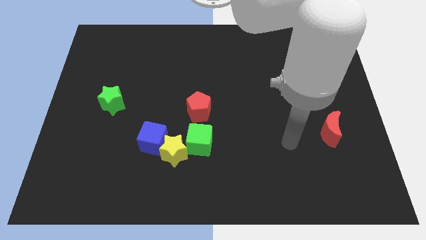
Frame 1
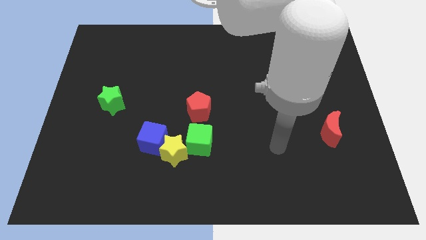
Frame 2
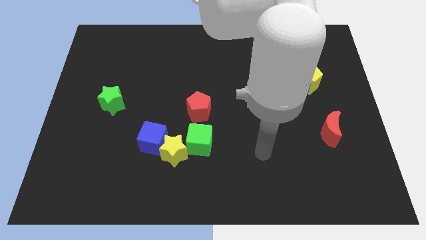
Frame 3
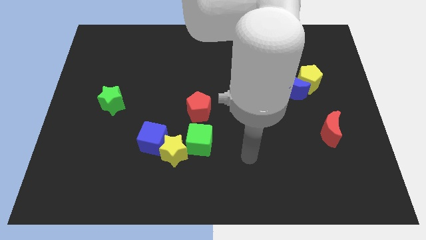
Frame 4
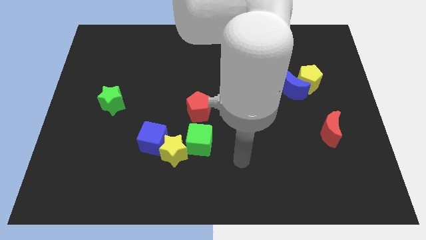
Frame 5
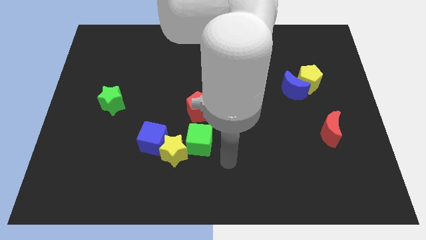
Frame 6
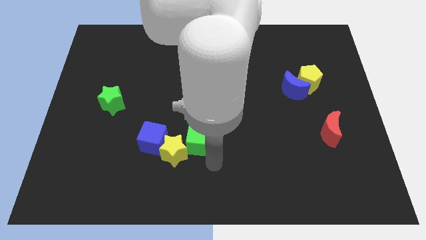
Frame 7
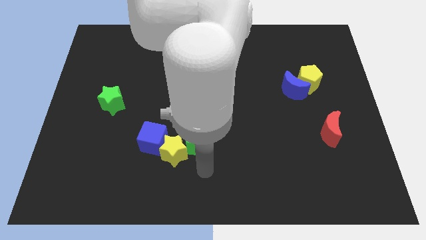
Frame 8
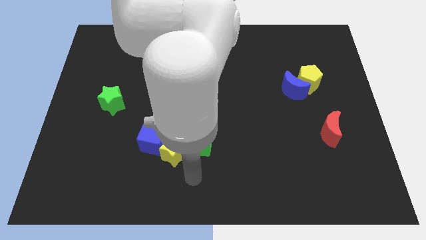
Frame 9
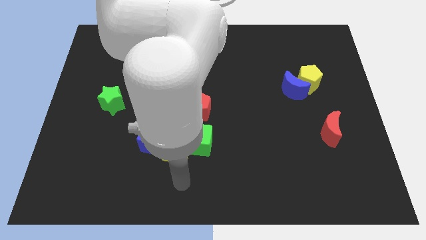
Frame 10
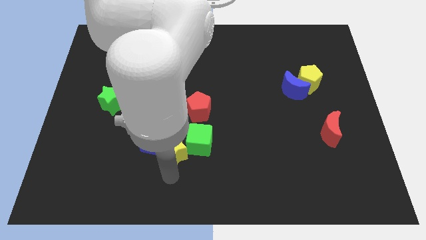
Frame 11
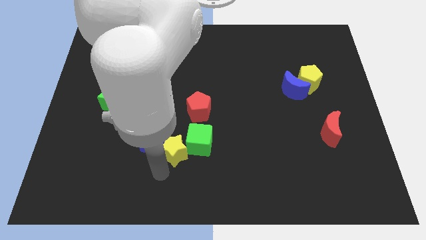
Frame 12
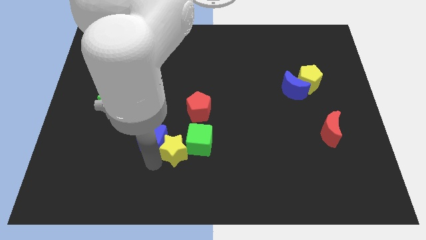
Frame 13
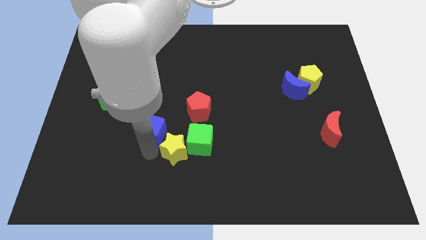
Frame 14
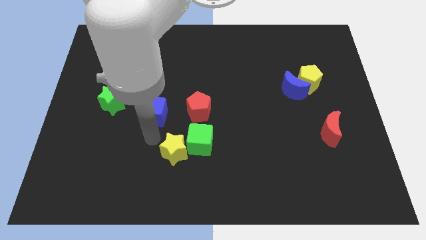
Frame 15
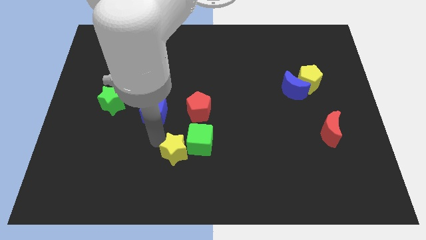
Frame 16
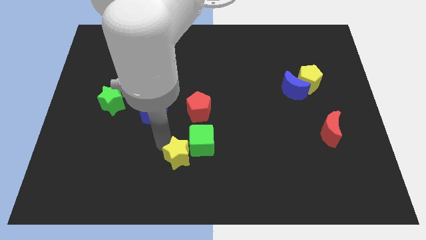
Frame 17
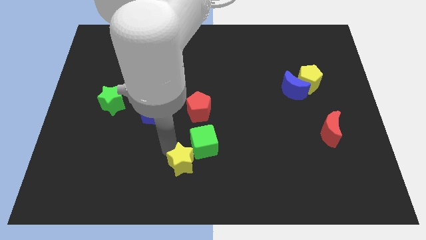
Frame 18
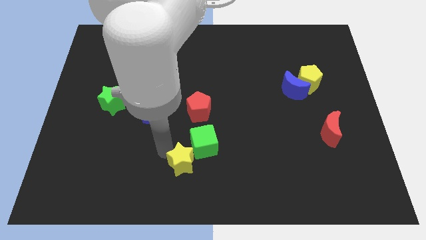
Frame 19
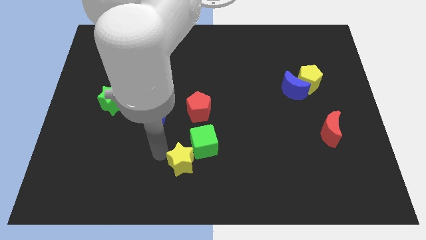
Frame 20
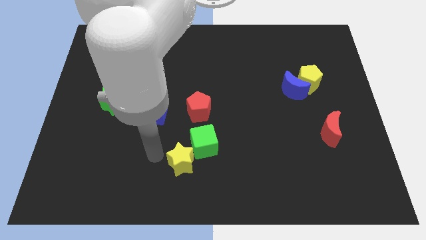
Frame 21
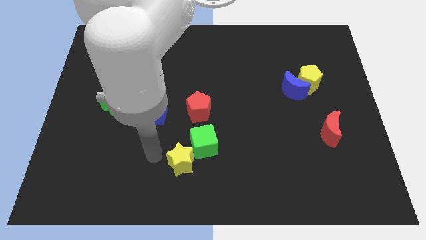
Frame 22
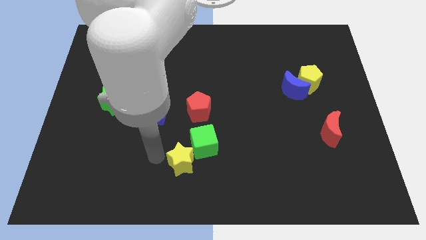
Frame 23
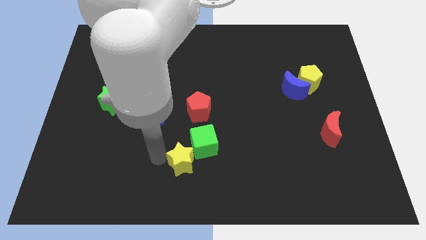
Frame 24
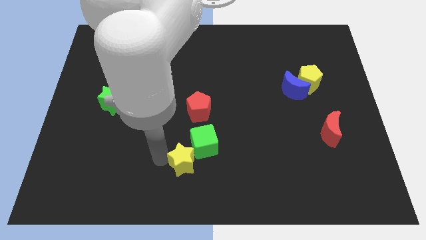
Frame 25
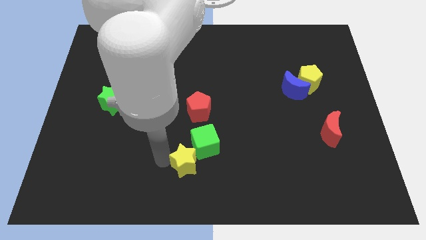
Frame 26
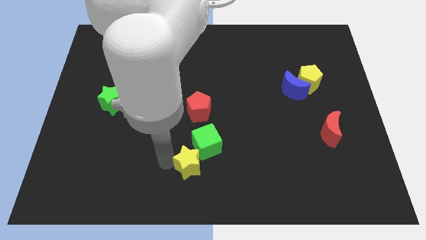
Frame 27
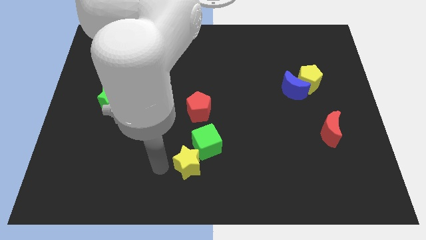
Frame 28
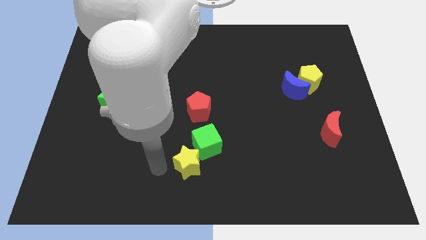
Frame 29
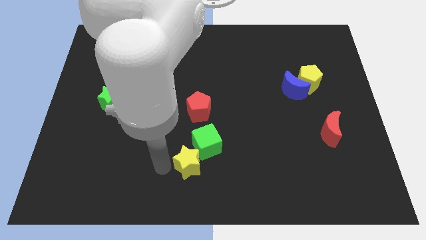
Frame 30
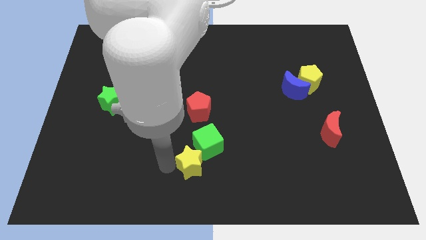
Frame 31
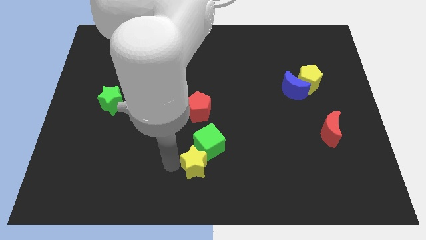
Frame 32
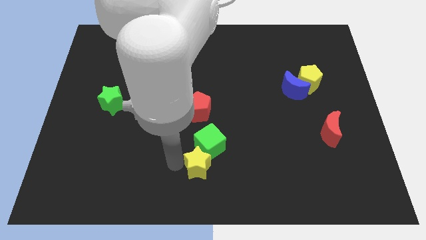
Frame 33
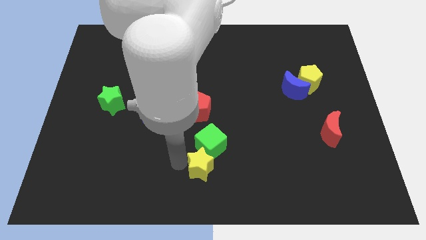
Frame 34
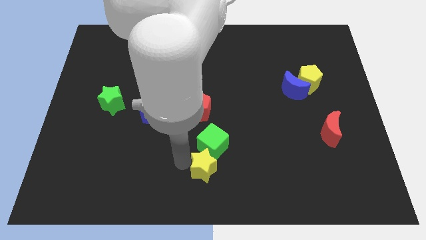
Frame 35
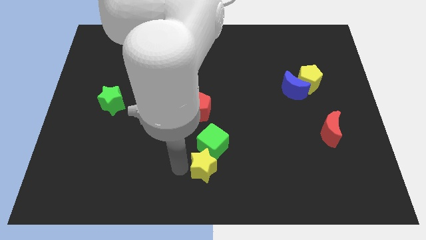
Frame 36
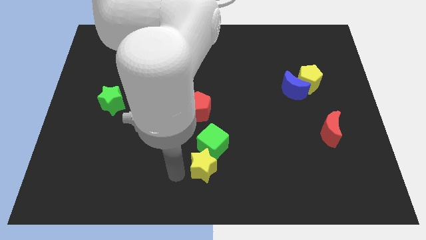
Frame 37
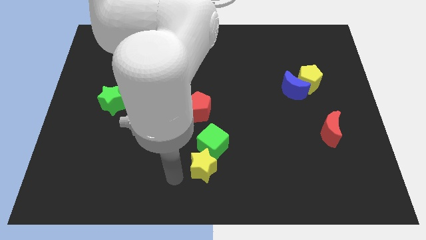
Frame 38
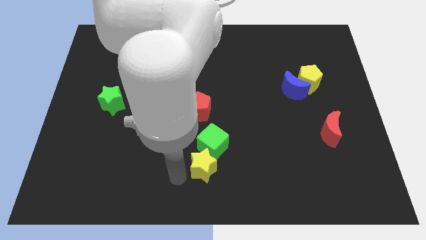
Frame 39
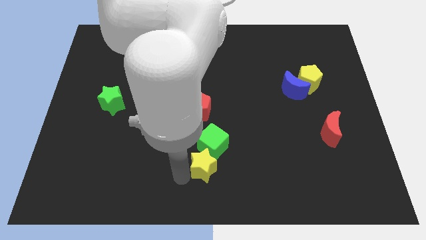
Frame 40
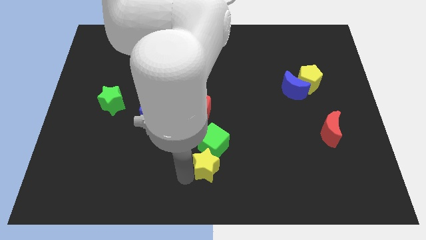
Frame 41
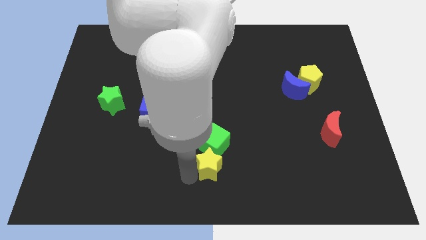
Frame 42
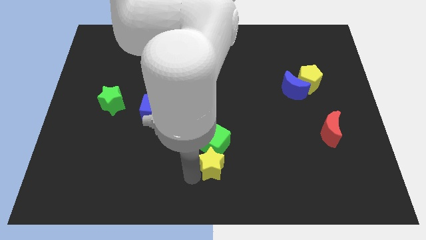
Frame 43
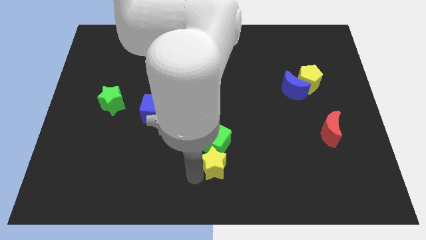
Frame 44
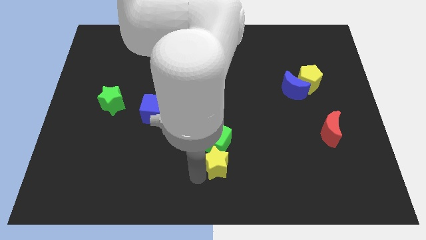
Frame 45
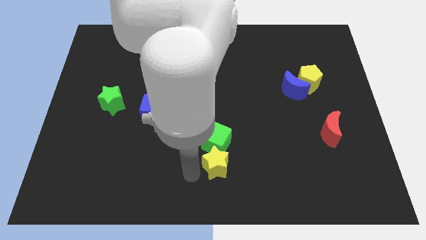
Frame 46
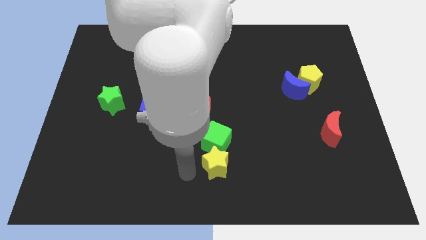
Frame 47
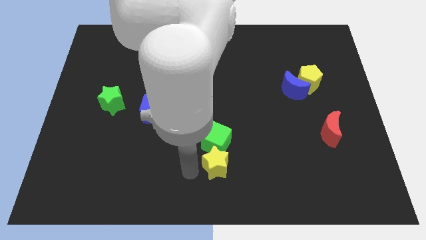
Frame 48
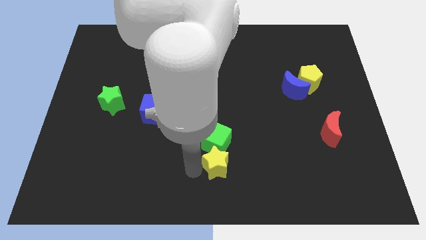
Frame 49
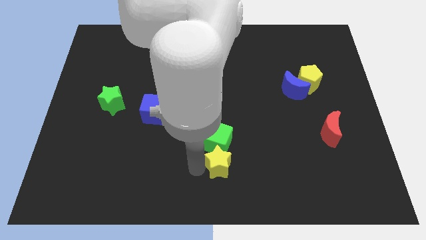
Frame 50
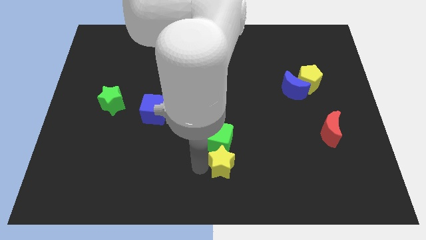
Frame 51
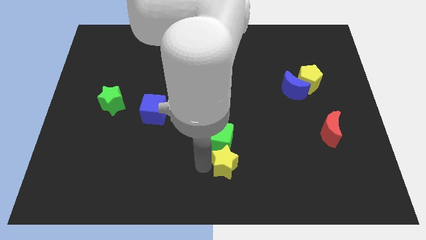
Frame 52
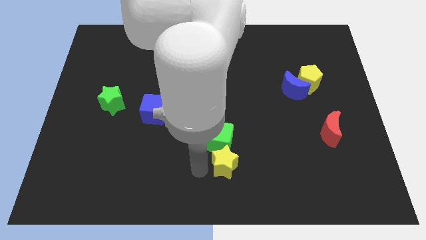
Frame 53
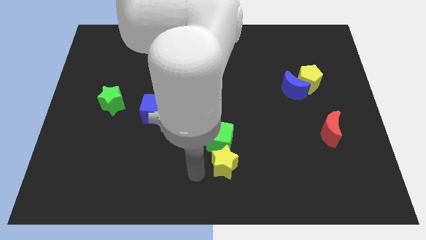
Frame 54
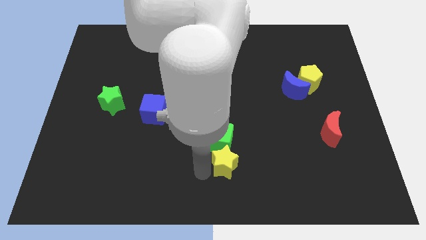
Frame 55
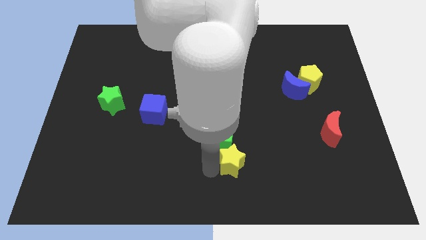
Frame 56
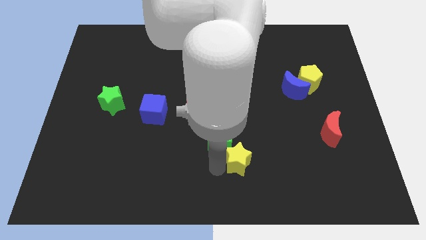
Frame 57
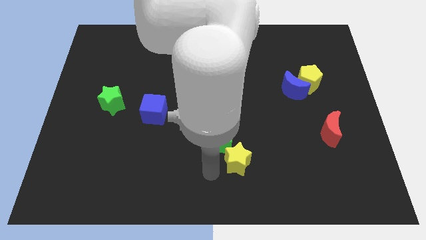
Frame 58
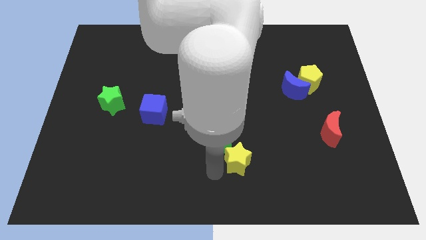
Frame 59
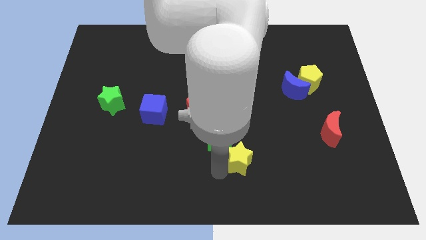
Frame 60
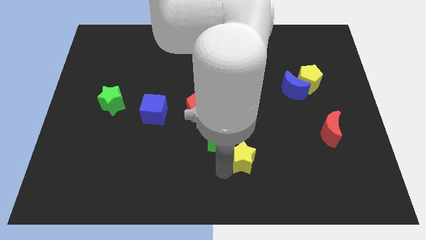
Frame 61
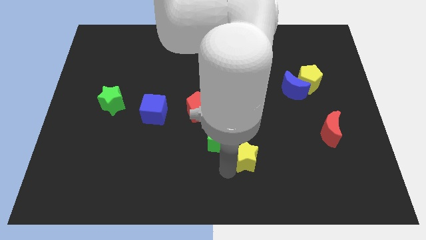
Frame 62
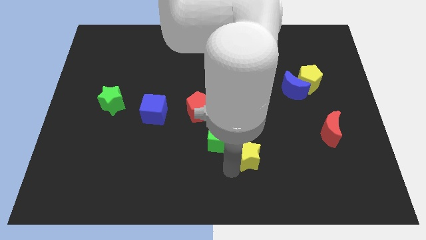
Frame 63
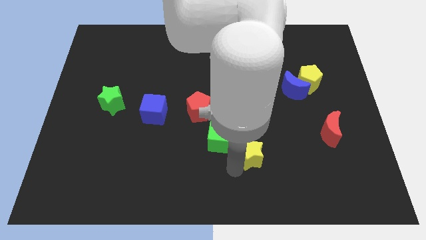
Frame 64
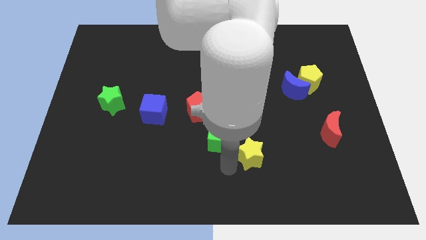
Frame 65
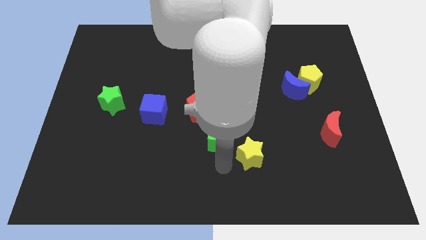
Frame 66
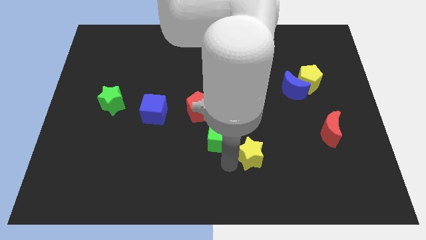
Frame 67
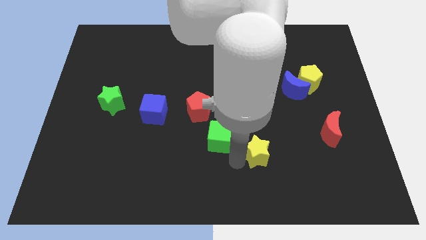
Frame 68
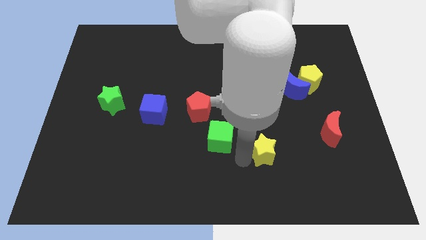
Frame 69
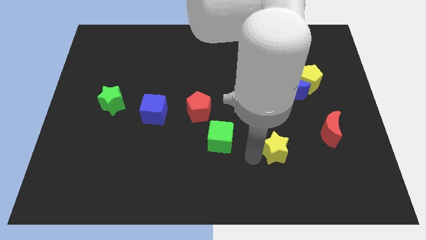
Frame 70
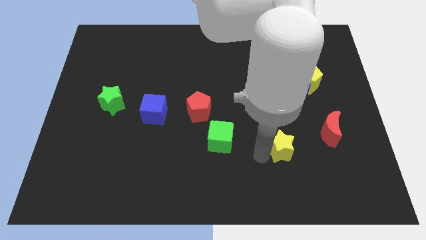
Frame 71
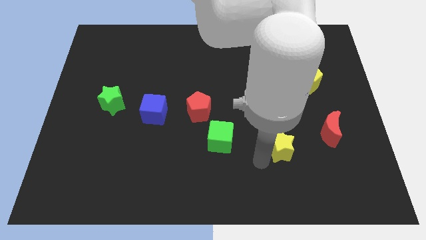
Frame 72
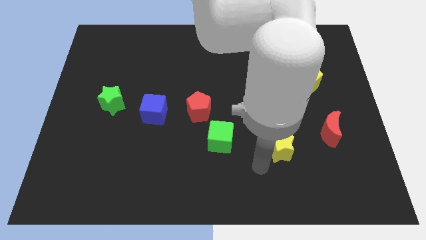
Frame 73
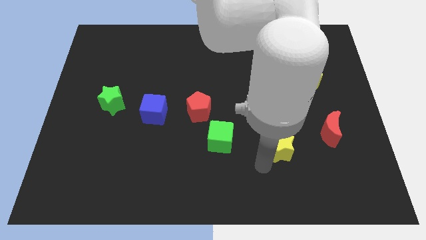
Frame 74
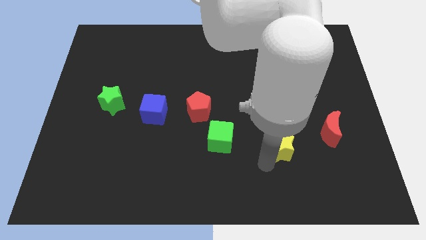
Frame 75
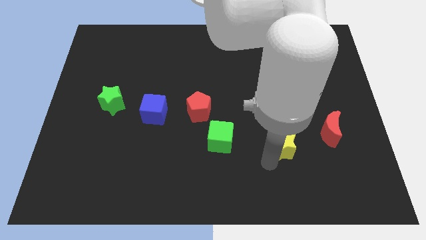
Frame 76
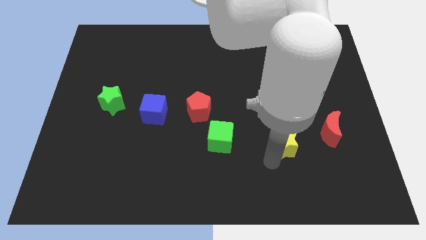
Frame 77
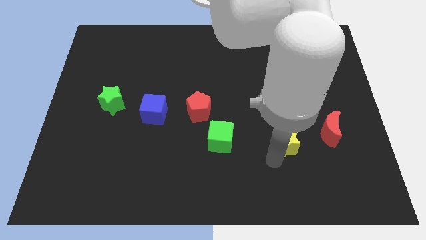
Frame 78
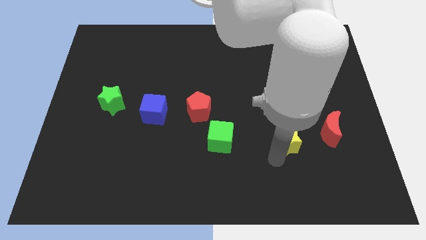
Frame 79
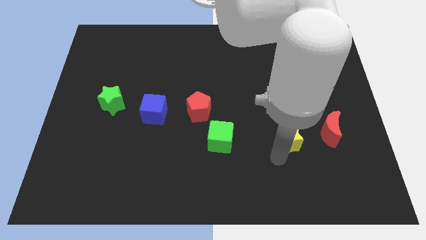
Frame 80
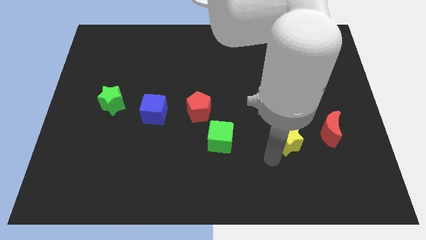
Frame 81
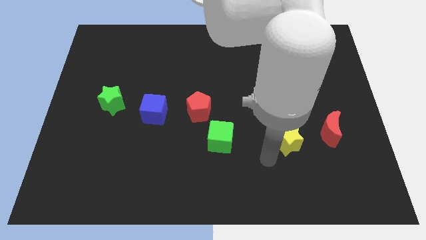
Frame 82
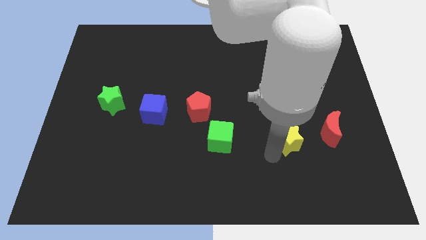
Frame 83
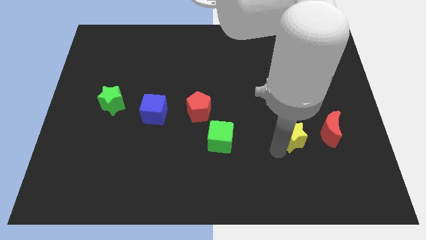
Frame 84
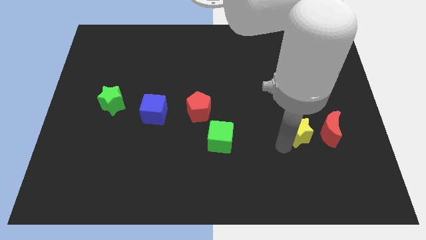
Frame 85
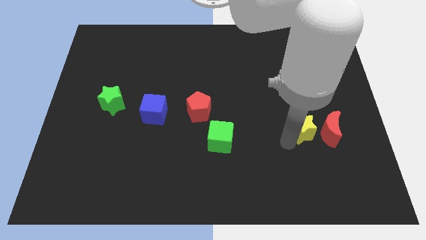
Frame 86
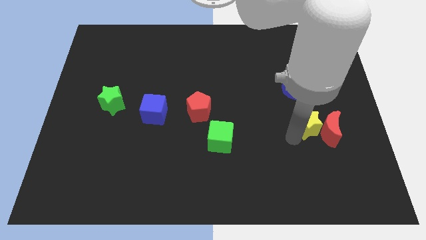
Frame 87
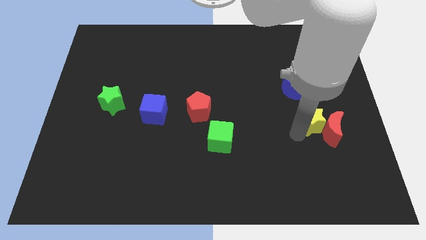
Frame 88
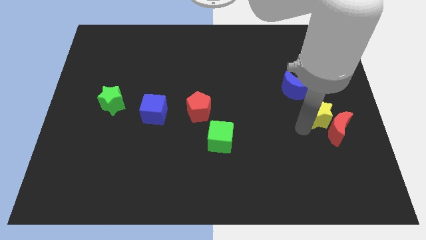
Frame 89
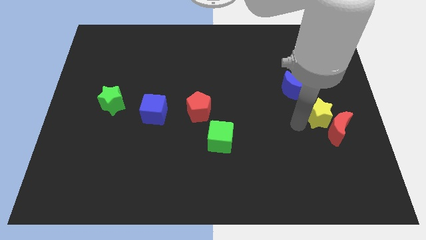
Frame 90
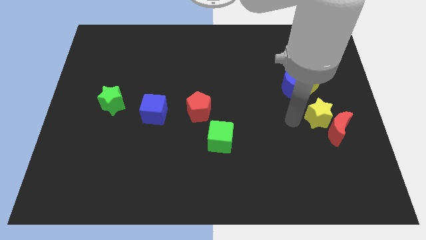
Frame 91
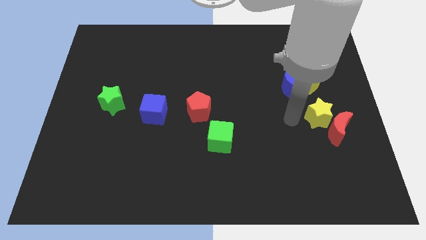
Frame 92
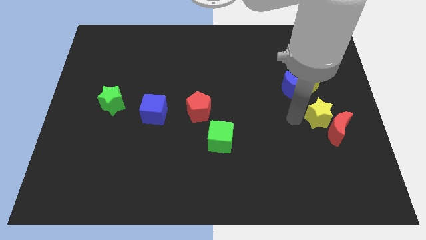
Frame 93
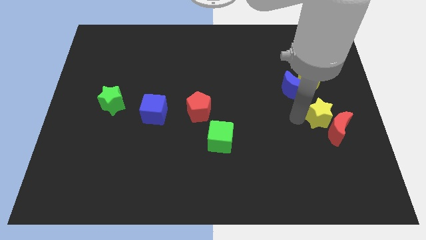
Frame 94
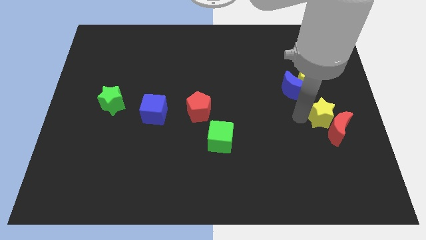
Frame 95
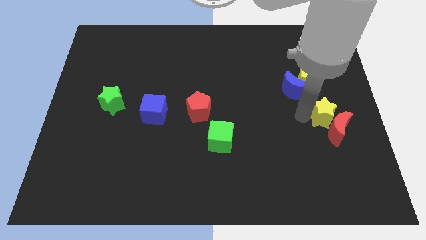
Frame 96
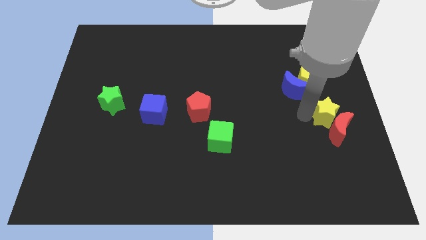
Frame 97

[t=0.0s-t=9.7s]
slide the yellow star to the center right
